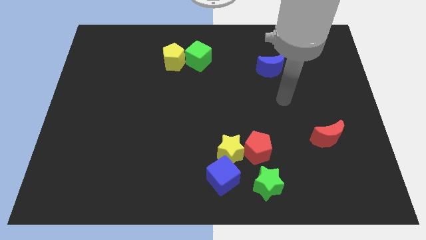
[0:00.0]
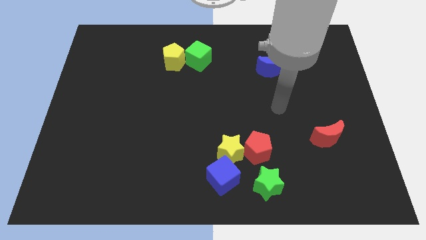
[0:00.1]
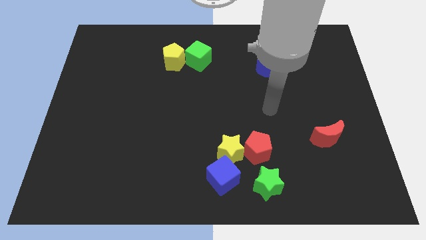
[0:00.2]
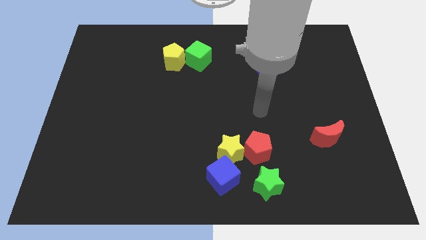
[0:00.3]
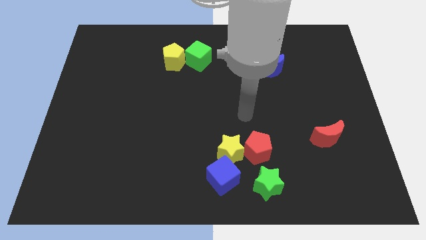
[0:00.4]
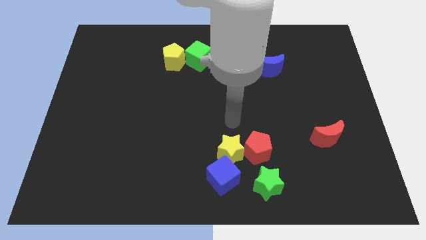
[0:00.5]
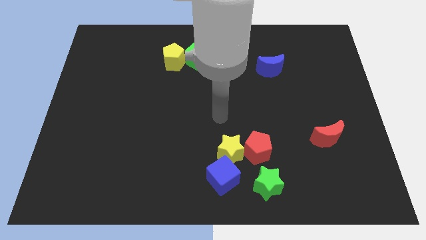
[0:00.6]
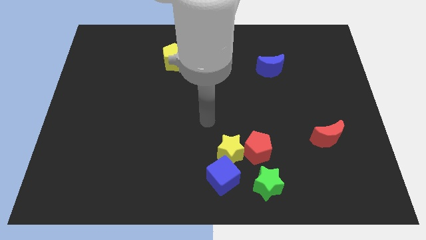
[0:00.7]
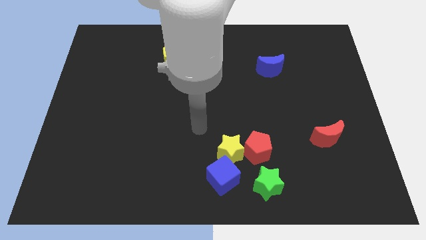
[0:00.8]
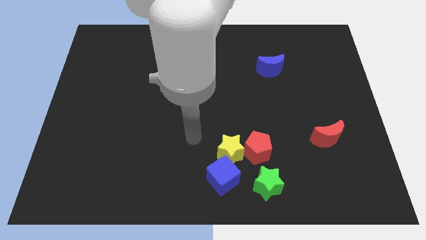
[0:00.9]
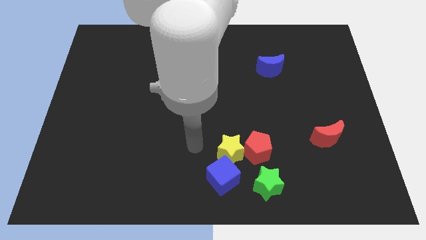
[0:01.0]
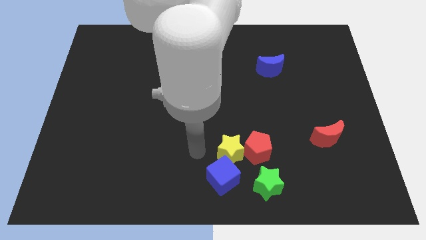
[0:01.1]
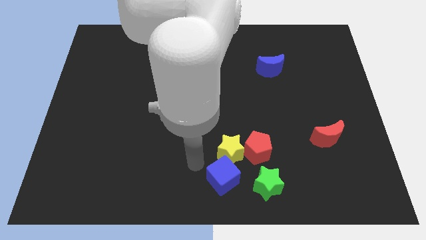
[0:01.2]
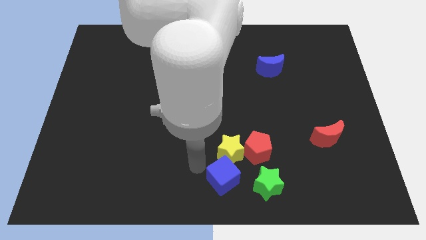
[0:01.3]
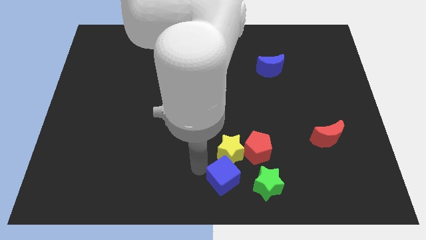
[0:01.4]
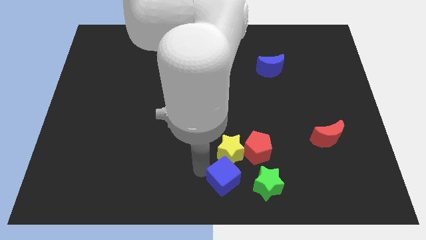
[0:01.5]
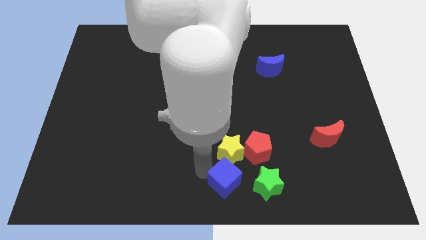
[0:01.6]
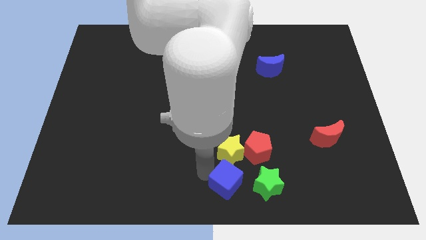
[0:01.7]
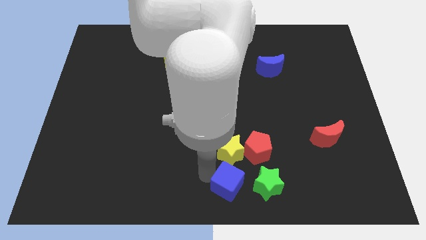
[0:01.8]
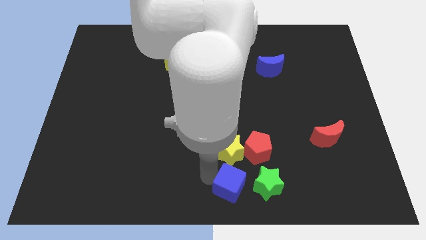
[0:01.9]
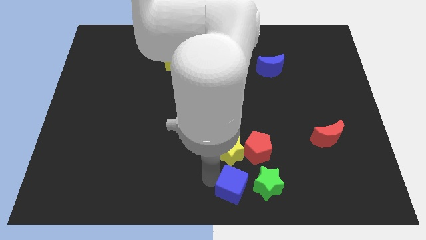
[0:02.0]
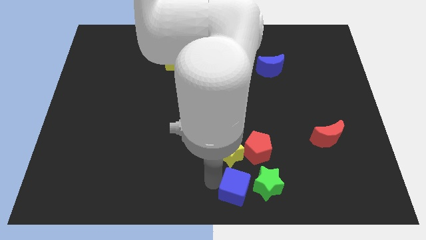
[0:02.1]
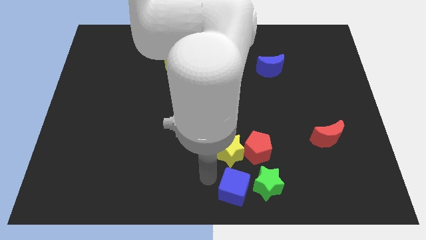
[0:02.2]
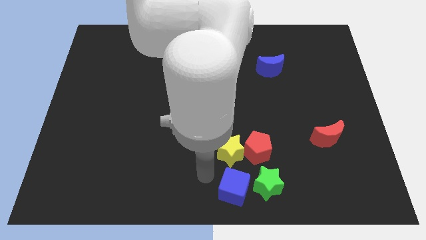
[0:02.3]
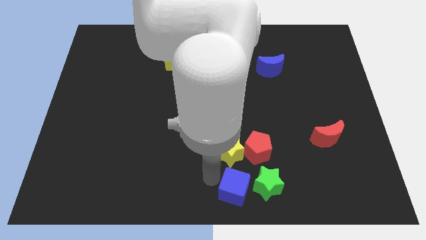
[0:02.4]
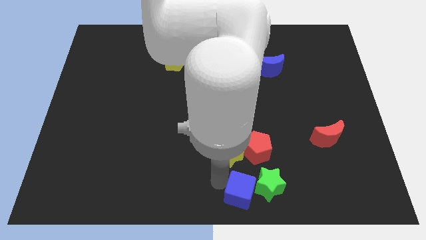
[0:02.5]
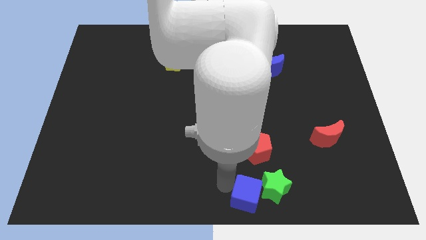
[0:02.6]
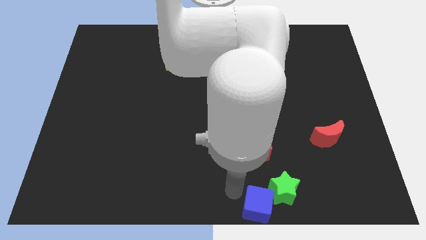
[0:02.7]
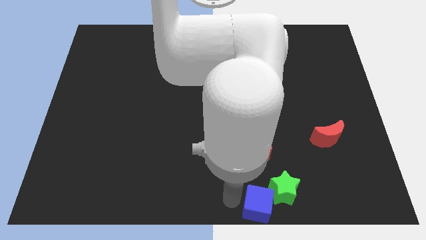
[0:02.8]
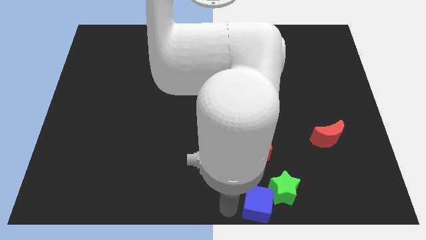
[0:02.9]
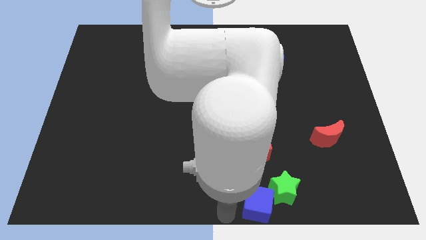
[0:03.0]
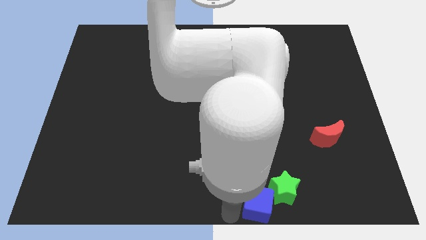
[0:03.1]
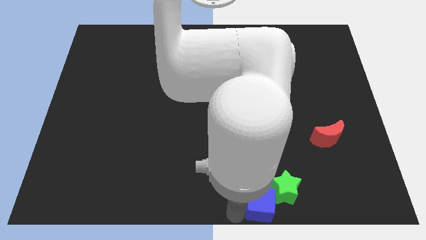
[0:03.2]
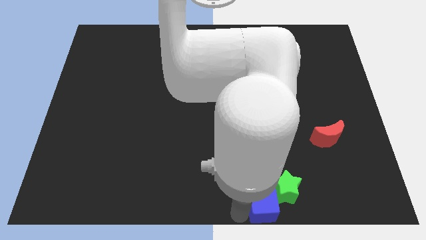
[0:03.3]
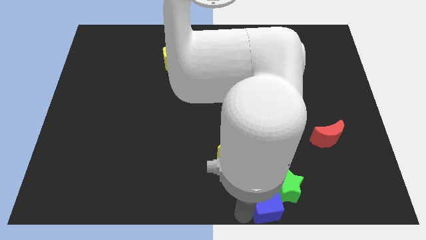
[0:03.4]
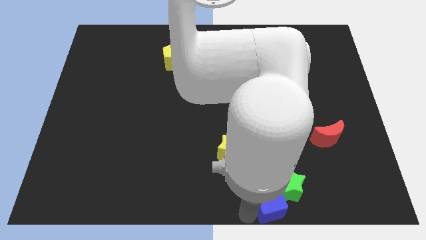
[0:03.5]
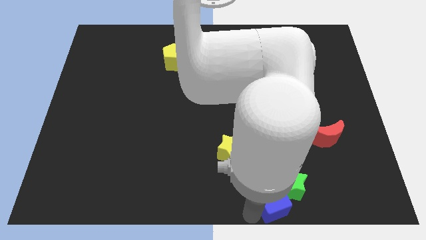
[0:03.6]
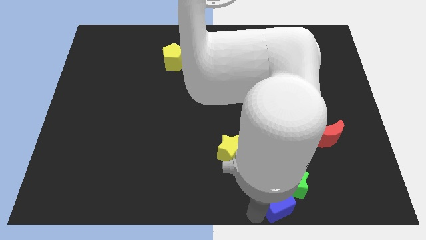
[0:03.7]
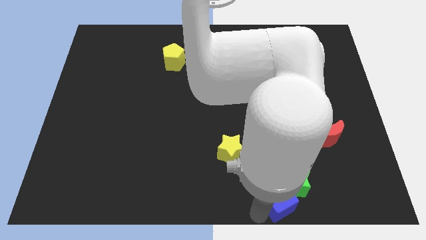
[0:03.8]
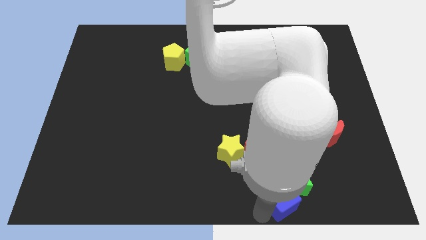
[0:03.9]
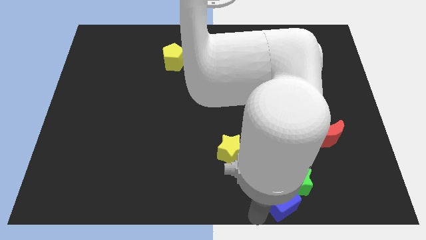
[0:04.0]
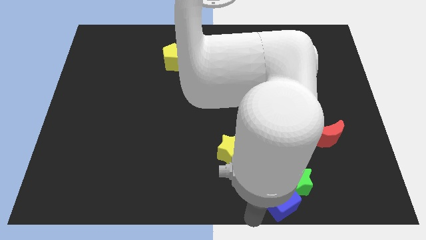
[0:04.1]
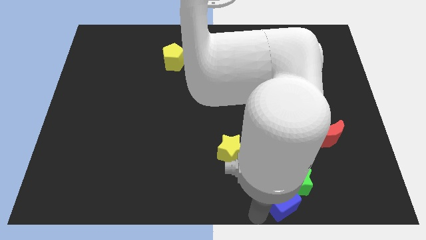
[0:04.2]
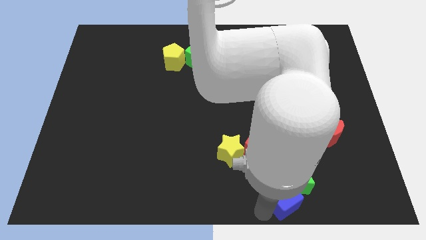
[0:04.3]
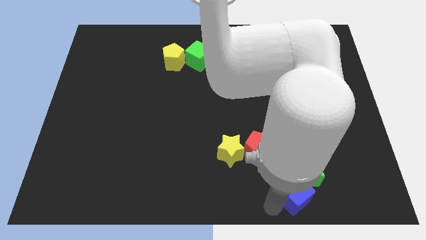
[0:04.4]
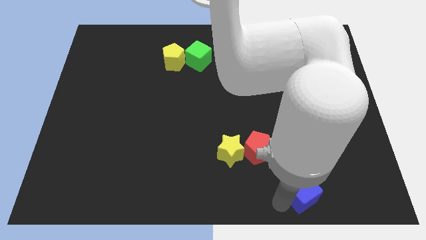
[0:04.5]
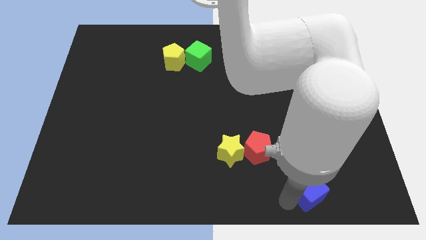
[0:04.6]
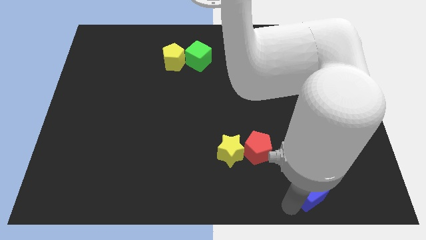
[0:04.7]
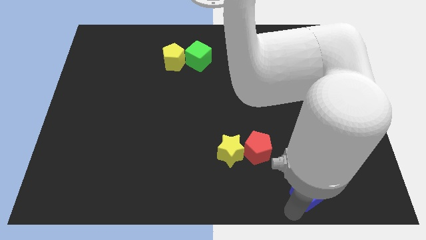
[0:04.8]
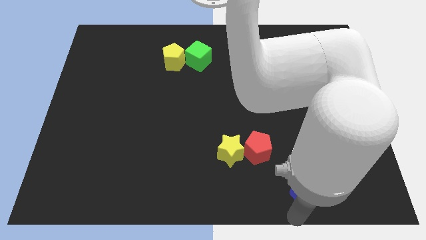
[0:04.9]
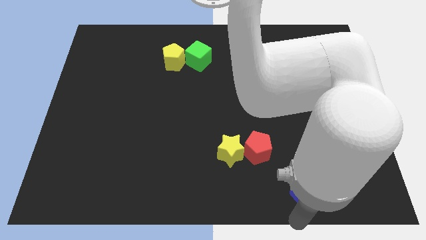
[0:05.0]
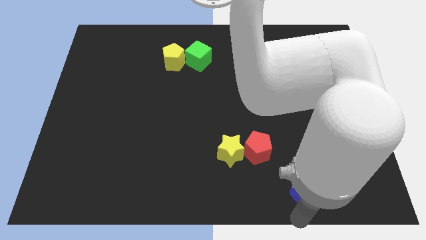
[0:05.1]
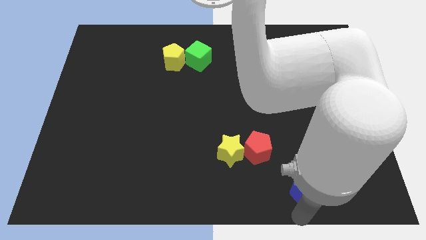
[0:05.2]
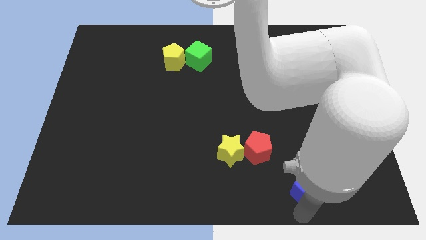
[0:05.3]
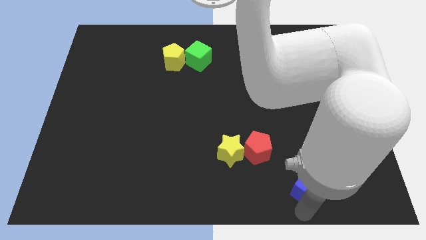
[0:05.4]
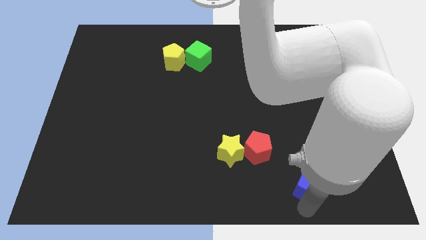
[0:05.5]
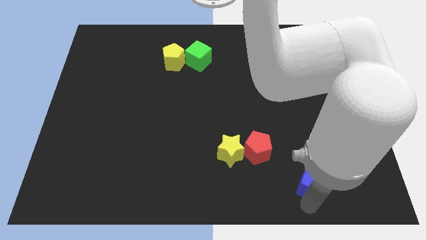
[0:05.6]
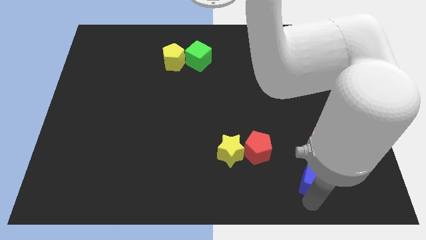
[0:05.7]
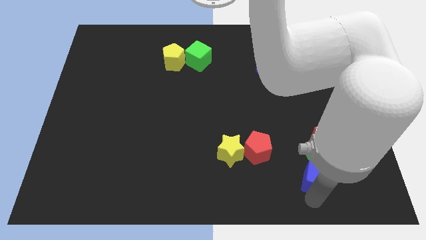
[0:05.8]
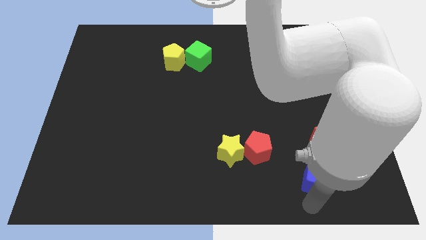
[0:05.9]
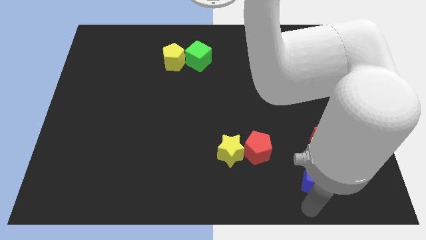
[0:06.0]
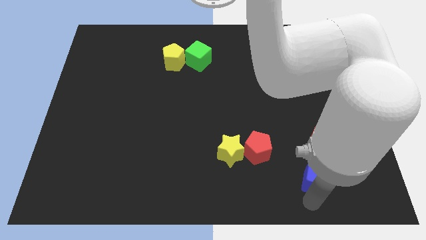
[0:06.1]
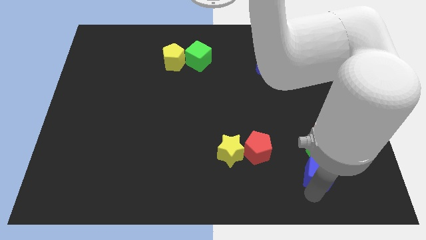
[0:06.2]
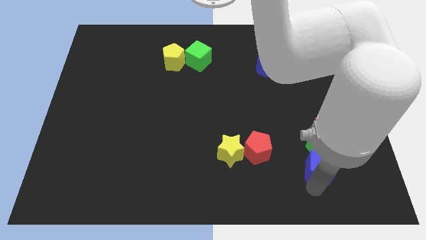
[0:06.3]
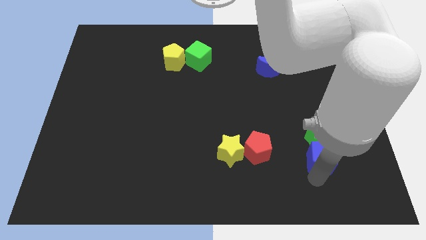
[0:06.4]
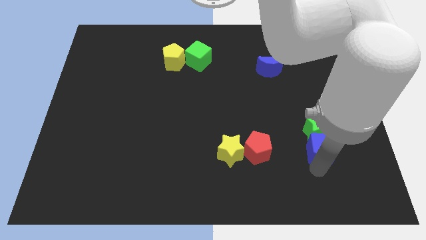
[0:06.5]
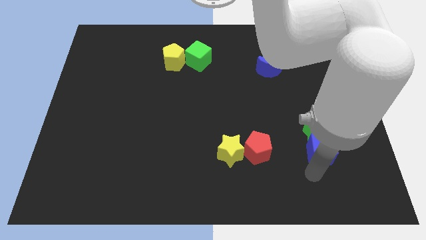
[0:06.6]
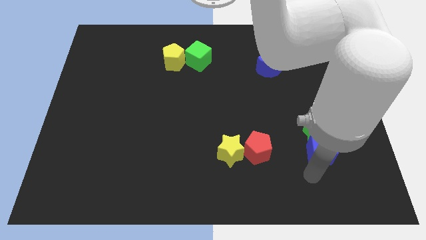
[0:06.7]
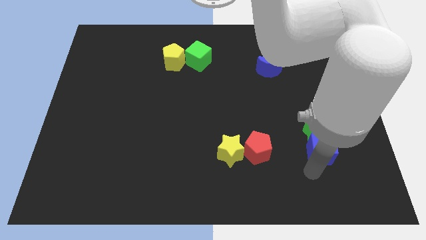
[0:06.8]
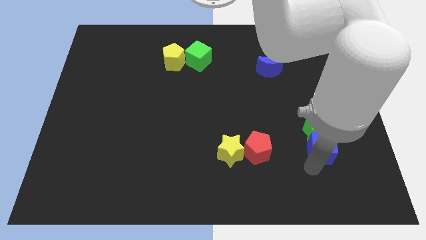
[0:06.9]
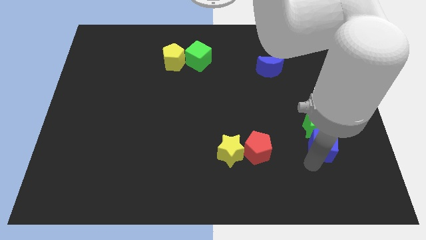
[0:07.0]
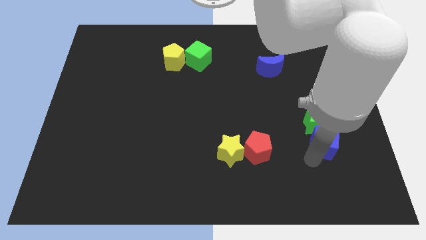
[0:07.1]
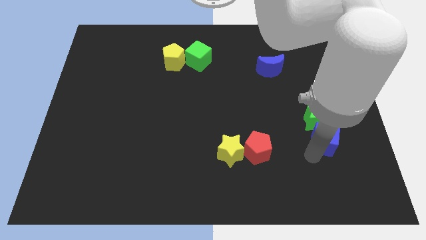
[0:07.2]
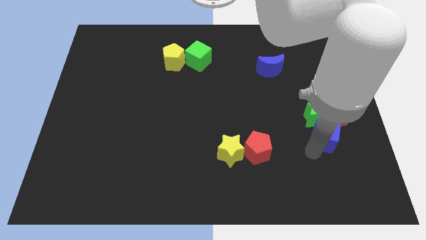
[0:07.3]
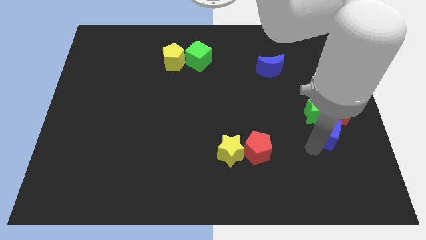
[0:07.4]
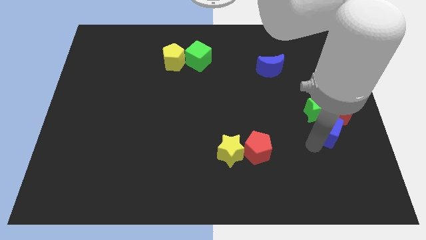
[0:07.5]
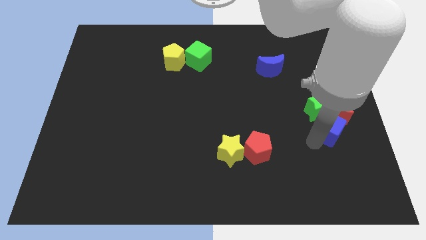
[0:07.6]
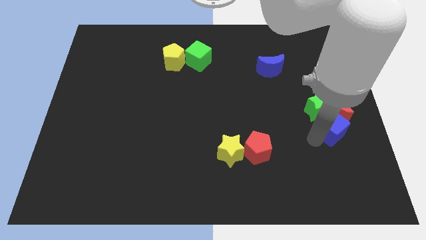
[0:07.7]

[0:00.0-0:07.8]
put the blue cube to the red moon
